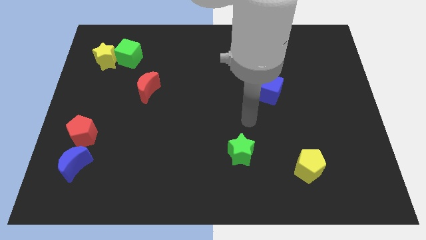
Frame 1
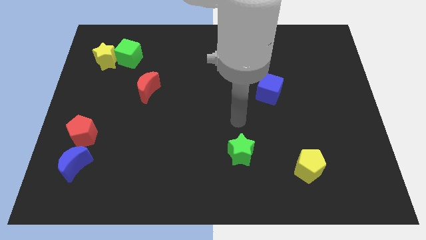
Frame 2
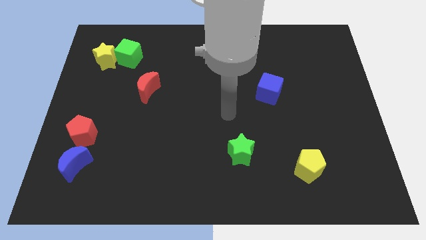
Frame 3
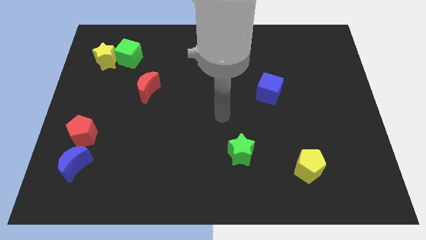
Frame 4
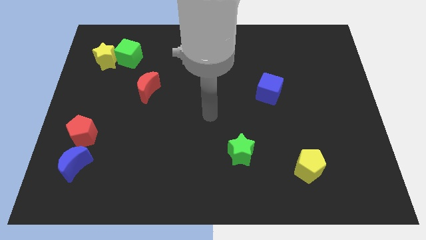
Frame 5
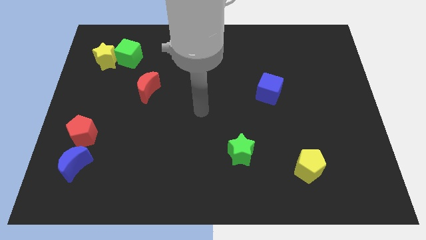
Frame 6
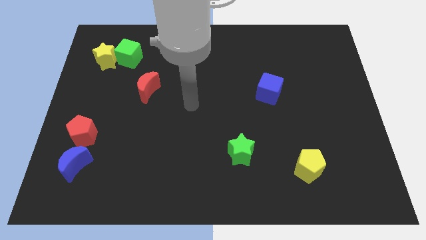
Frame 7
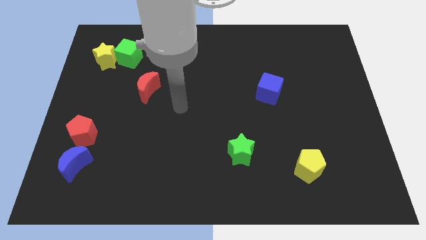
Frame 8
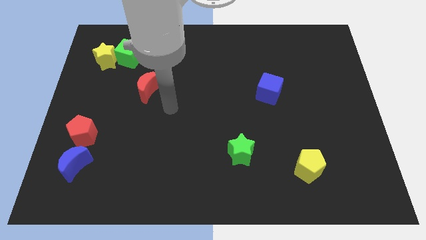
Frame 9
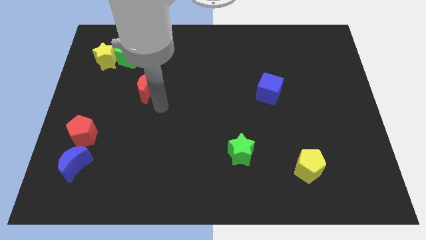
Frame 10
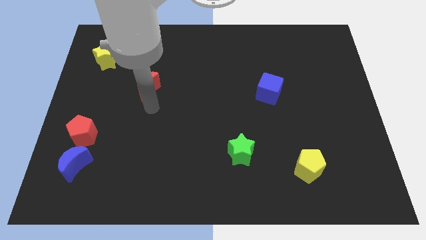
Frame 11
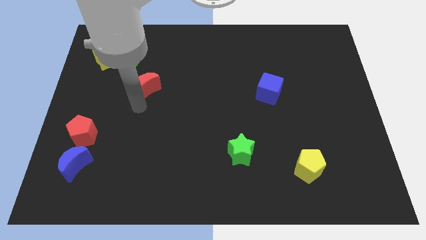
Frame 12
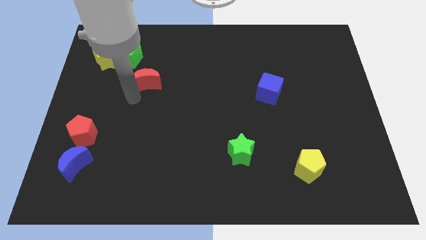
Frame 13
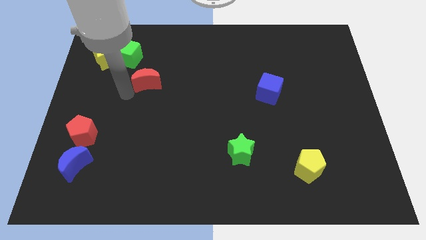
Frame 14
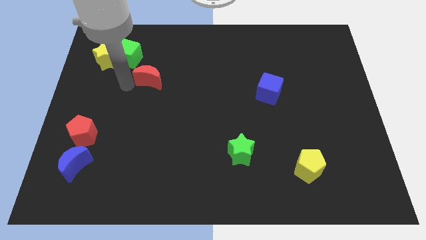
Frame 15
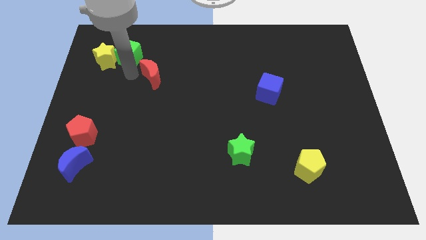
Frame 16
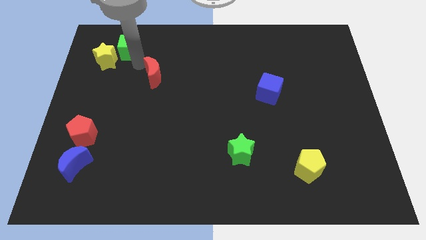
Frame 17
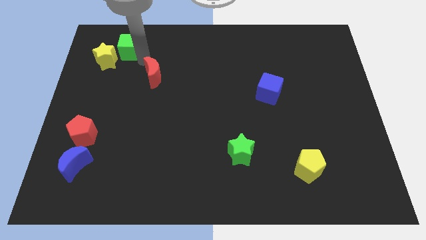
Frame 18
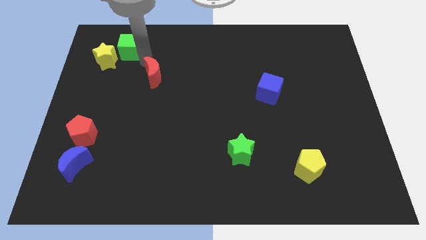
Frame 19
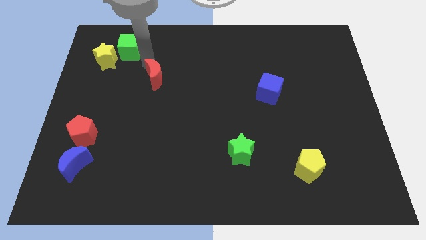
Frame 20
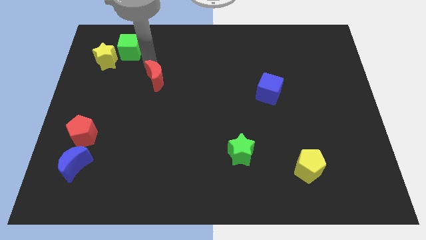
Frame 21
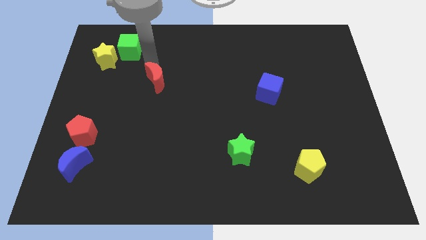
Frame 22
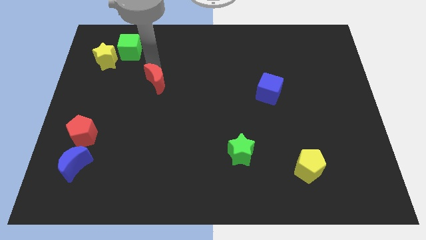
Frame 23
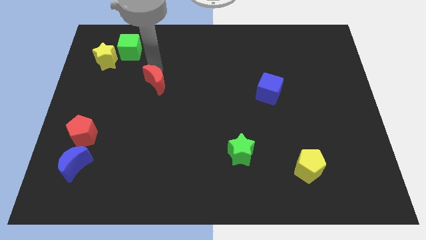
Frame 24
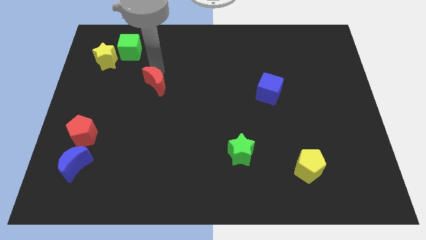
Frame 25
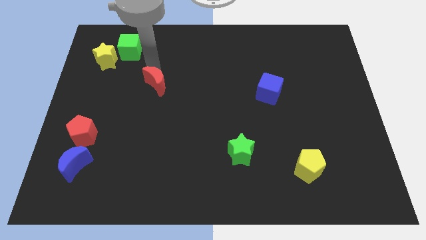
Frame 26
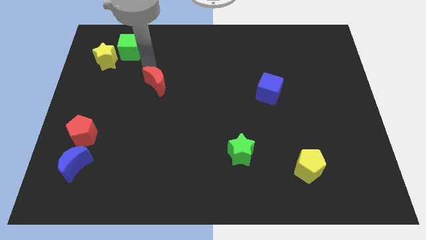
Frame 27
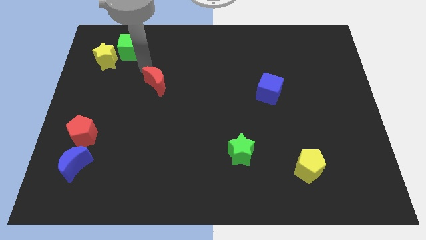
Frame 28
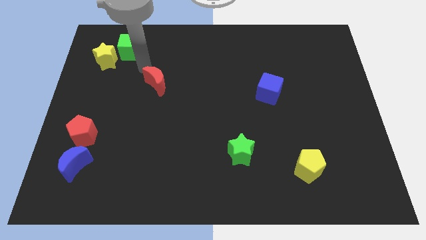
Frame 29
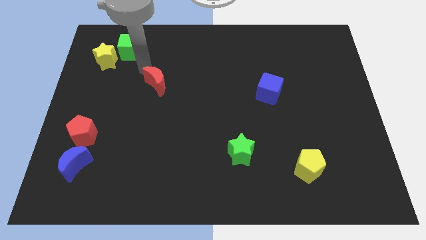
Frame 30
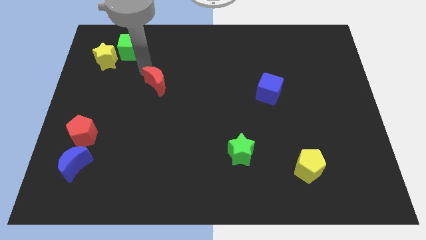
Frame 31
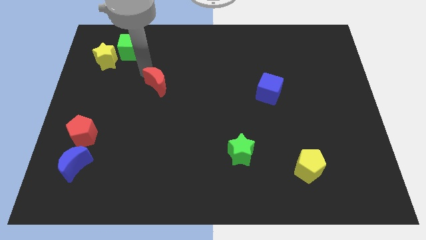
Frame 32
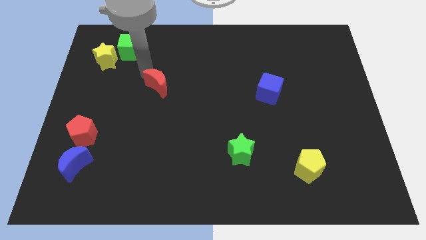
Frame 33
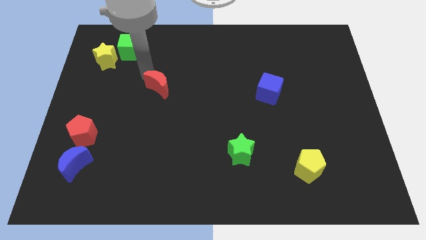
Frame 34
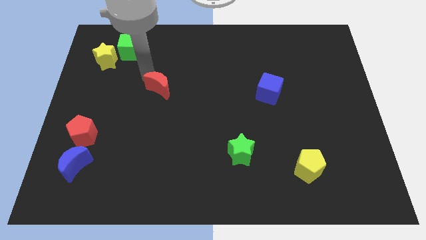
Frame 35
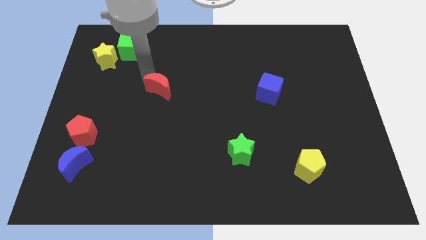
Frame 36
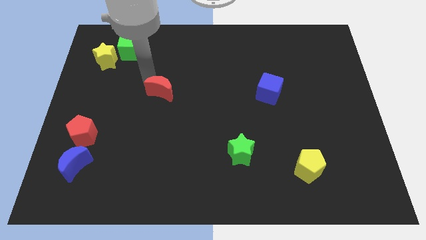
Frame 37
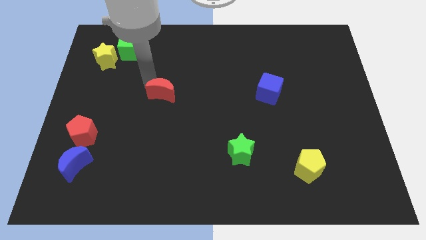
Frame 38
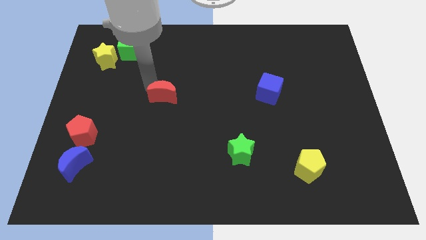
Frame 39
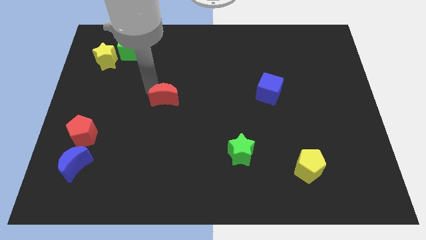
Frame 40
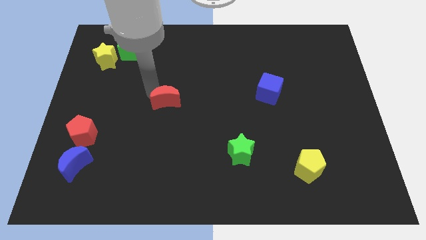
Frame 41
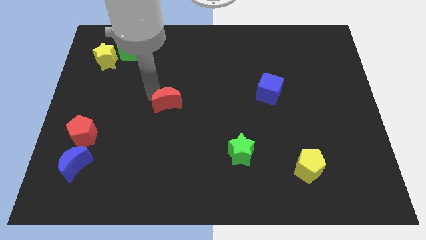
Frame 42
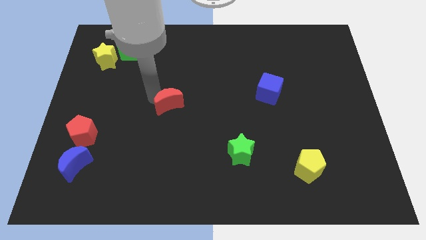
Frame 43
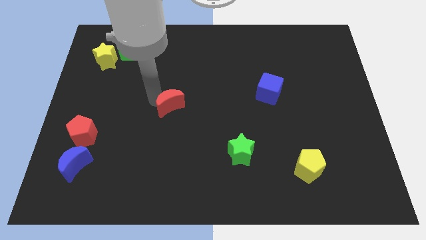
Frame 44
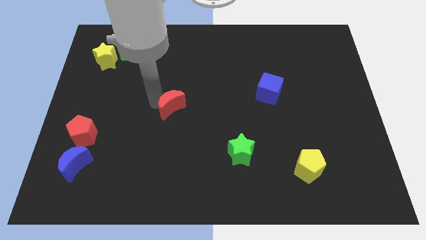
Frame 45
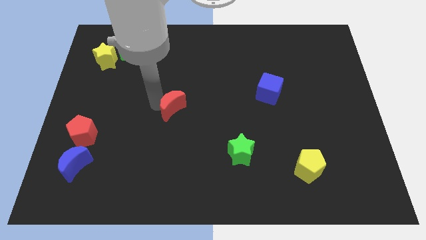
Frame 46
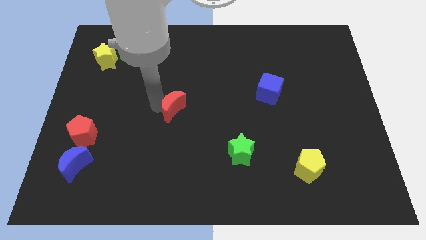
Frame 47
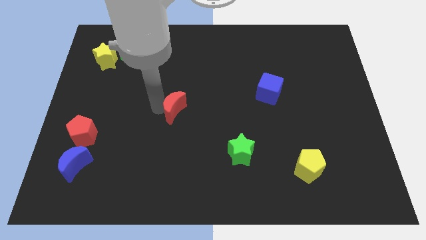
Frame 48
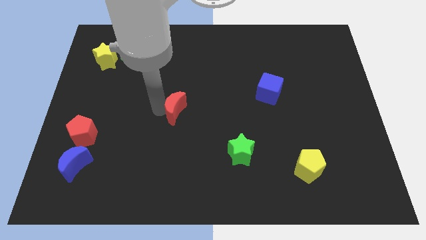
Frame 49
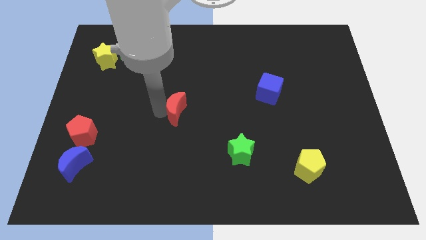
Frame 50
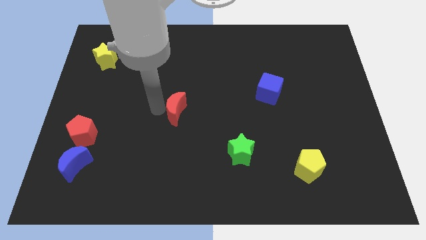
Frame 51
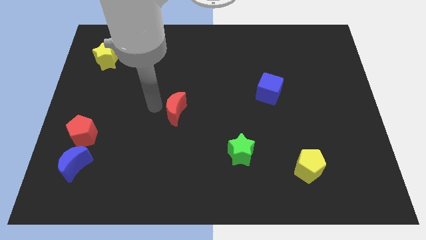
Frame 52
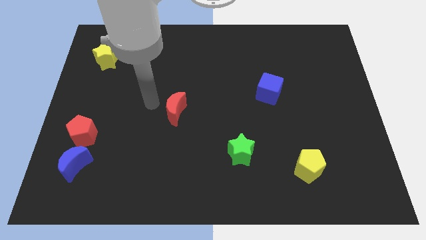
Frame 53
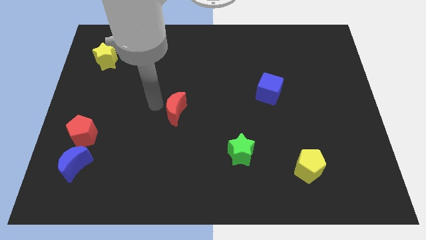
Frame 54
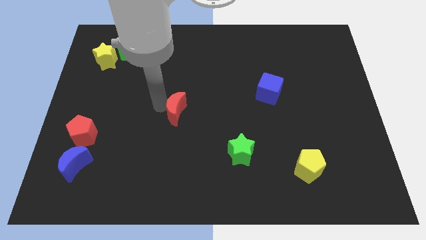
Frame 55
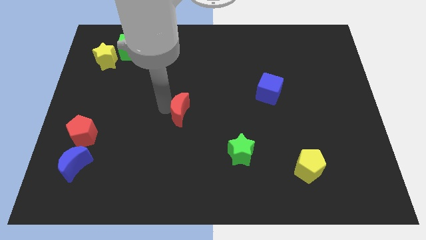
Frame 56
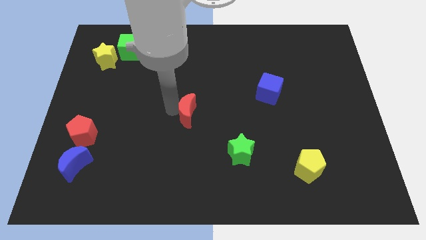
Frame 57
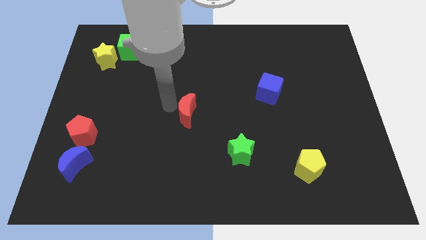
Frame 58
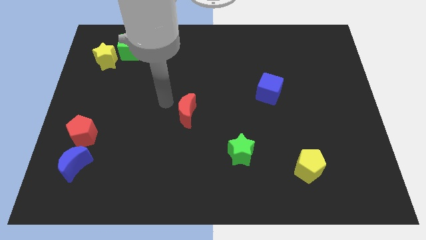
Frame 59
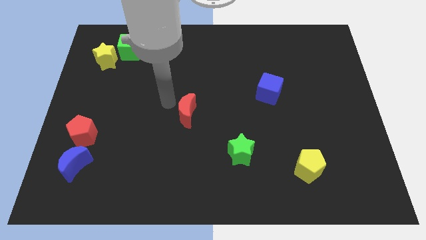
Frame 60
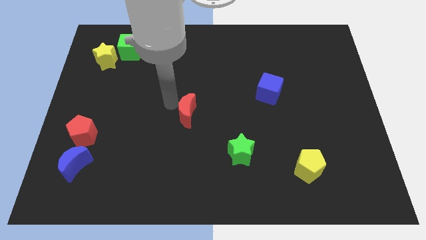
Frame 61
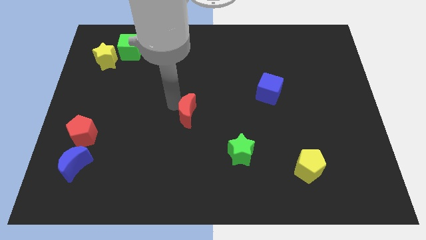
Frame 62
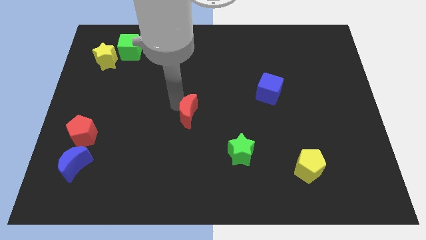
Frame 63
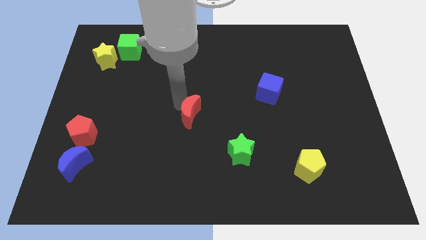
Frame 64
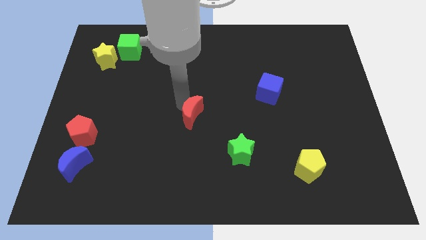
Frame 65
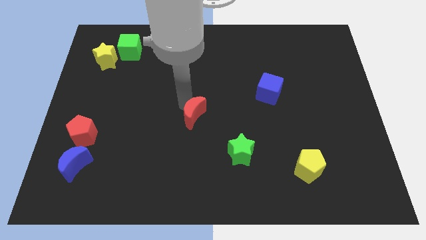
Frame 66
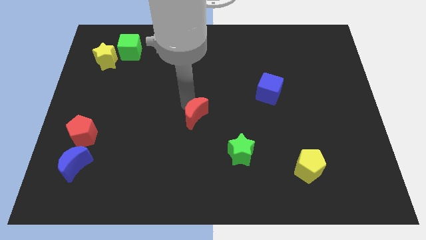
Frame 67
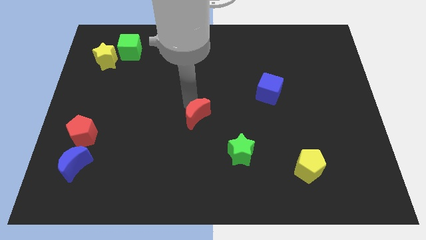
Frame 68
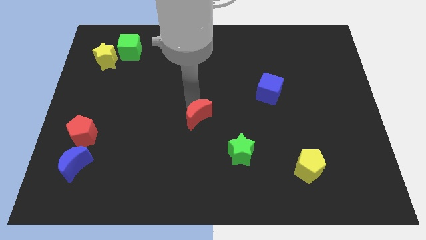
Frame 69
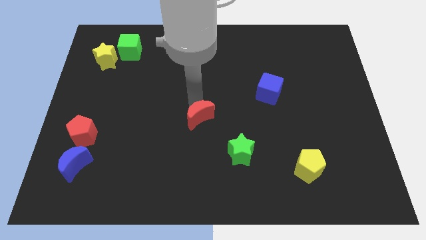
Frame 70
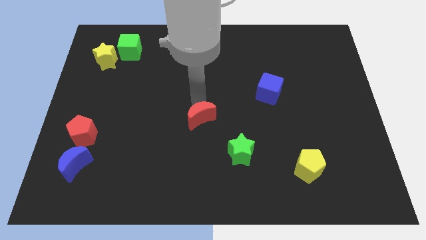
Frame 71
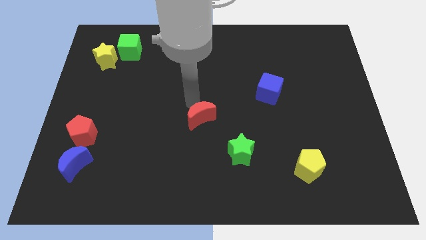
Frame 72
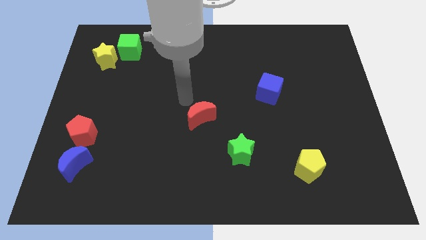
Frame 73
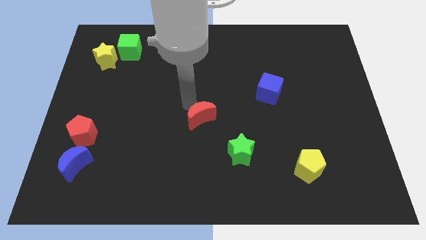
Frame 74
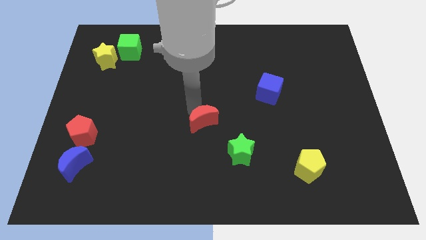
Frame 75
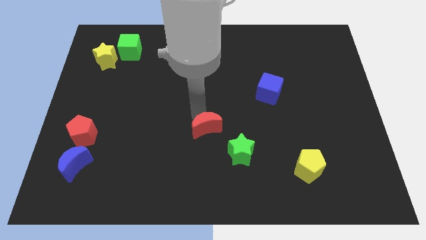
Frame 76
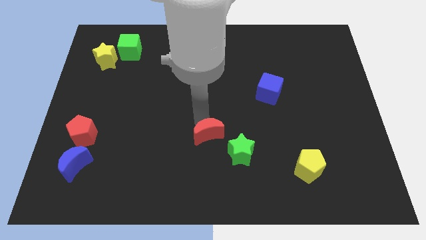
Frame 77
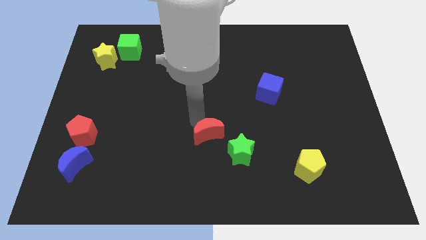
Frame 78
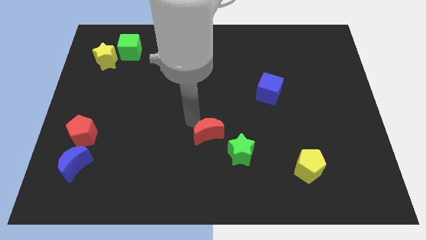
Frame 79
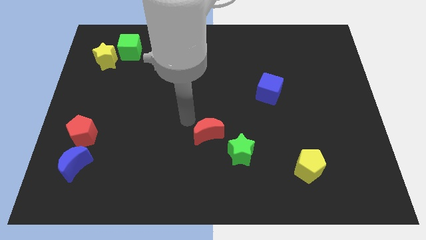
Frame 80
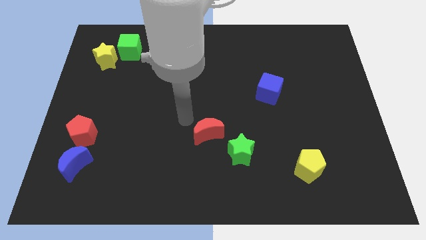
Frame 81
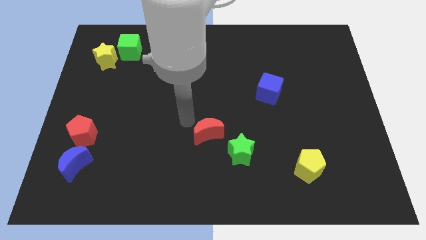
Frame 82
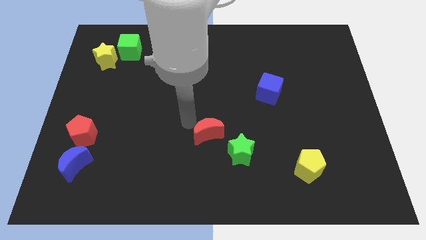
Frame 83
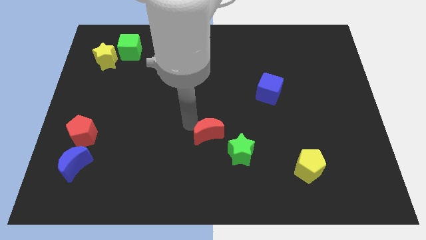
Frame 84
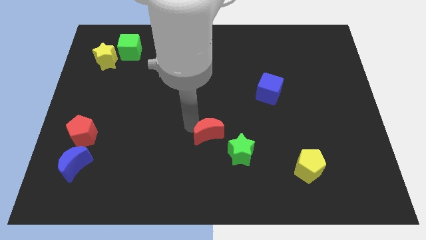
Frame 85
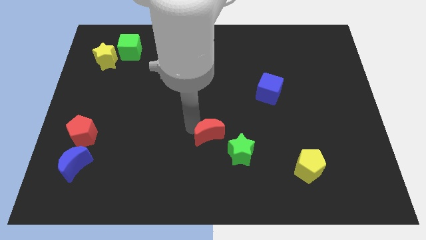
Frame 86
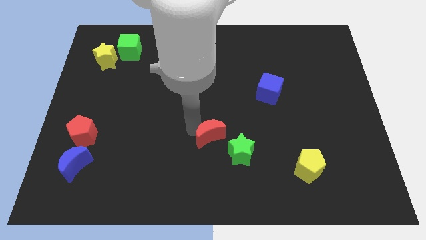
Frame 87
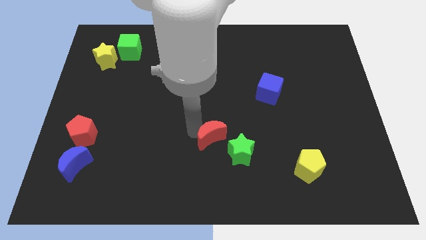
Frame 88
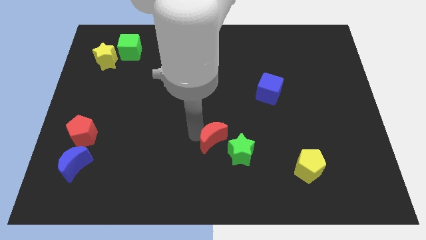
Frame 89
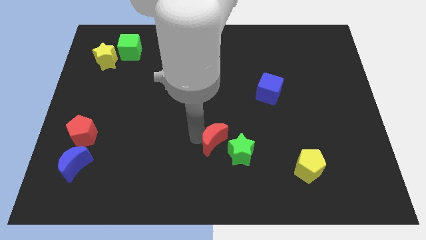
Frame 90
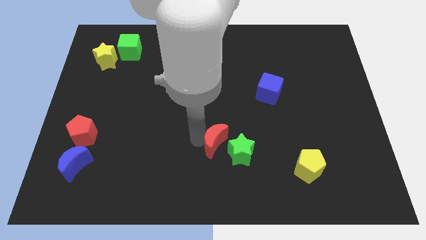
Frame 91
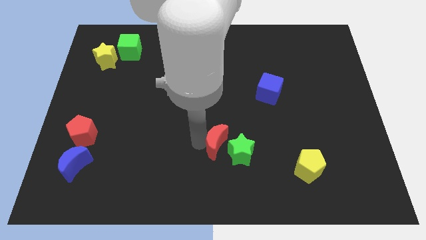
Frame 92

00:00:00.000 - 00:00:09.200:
slide the red moon to the green star
